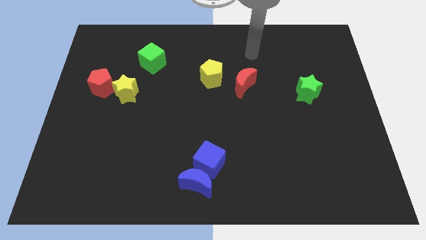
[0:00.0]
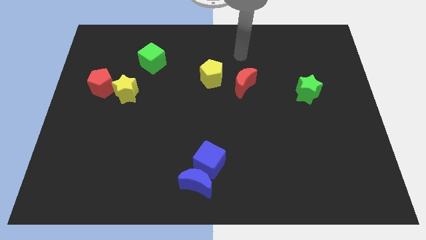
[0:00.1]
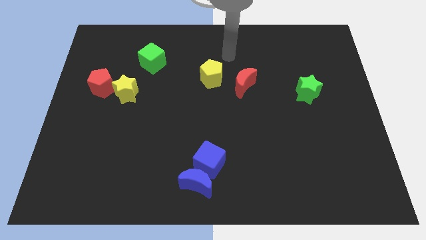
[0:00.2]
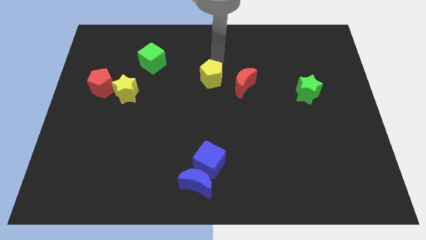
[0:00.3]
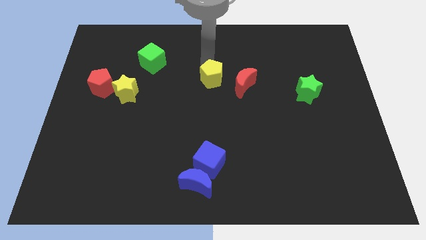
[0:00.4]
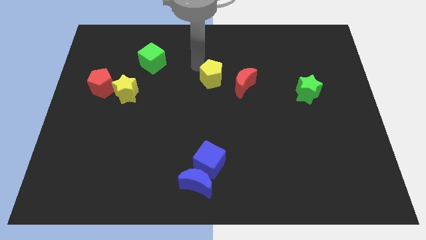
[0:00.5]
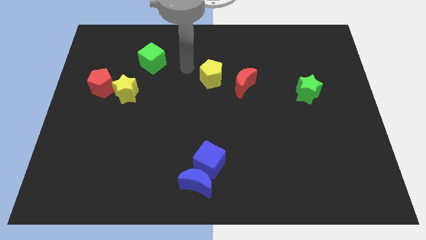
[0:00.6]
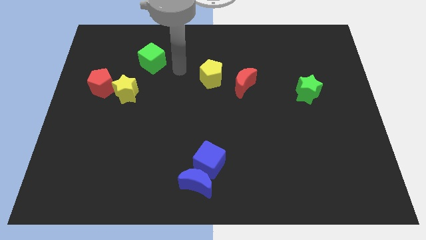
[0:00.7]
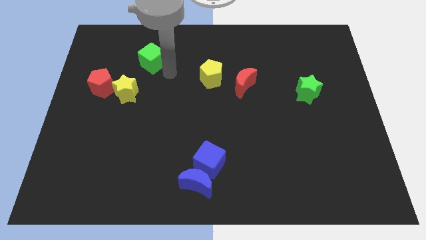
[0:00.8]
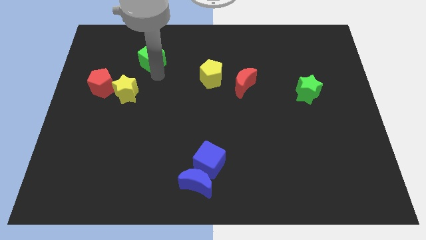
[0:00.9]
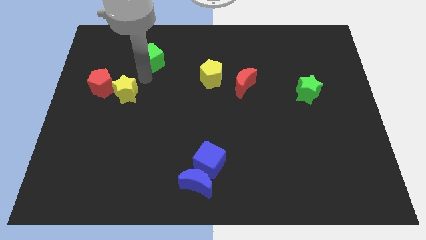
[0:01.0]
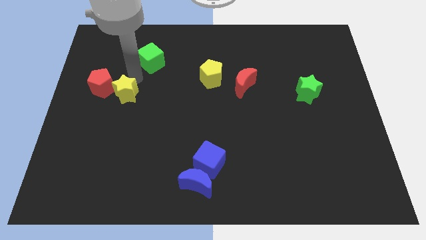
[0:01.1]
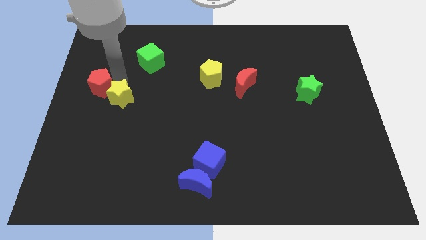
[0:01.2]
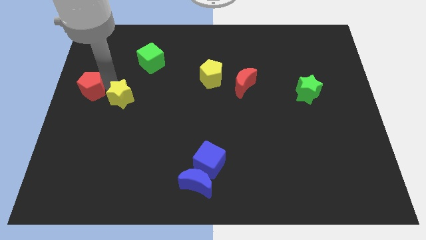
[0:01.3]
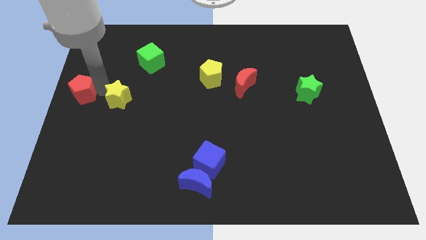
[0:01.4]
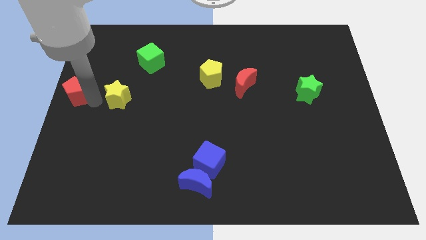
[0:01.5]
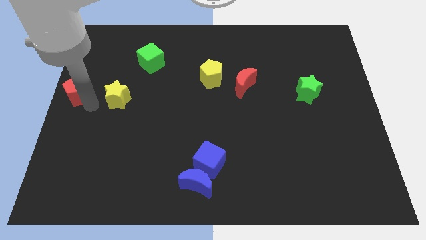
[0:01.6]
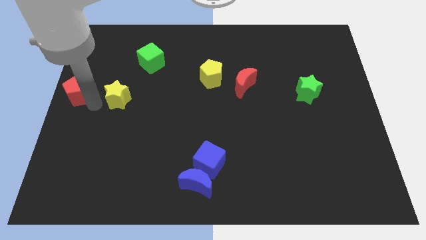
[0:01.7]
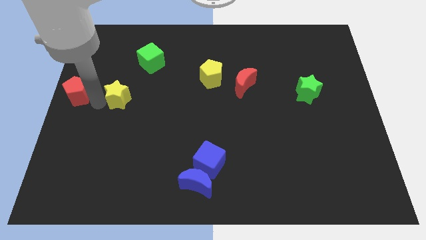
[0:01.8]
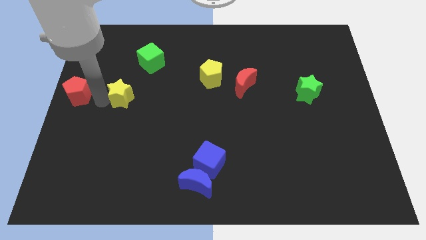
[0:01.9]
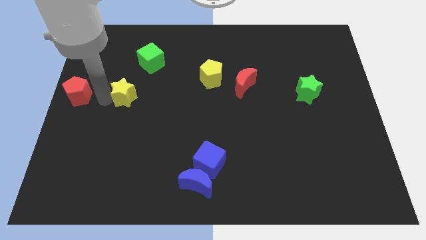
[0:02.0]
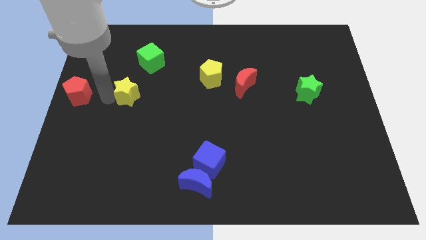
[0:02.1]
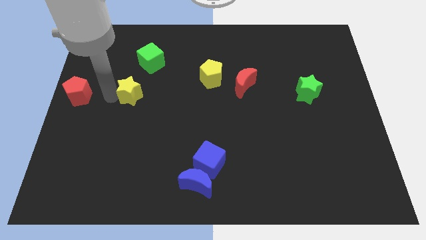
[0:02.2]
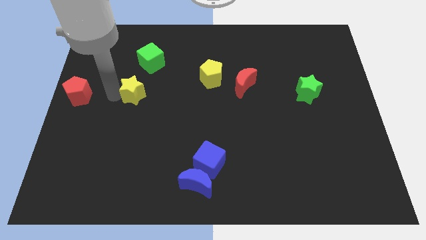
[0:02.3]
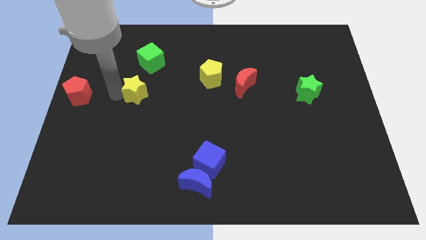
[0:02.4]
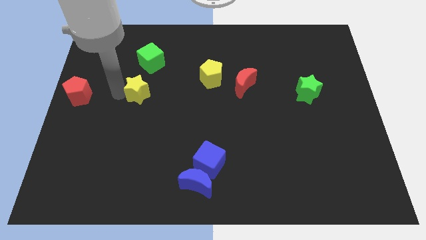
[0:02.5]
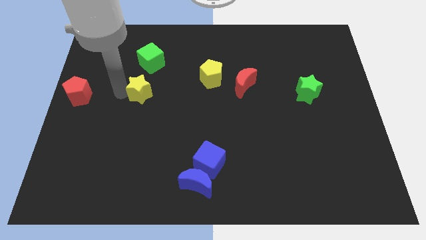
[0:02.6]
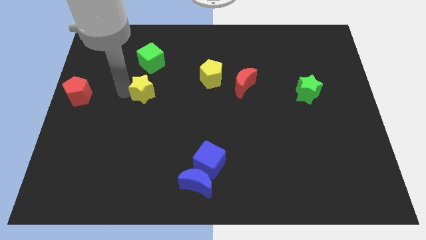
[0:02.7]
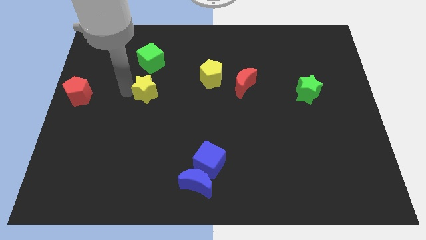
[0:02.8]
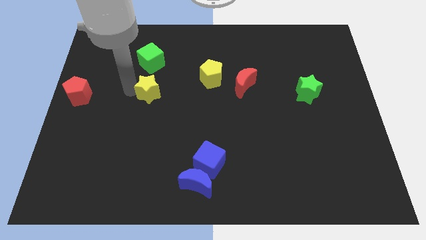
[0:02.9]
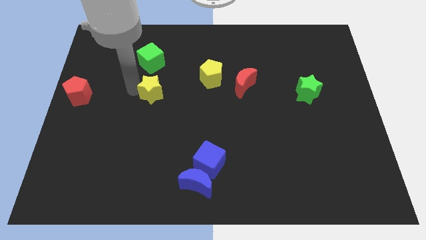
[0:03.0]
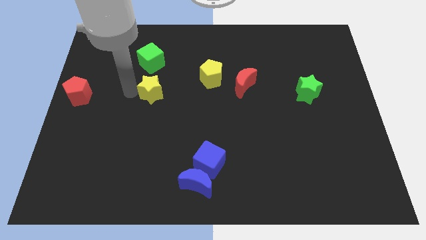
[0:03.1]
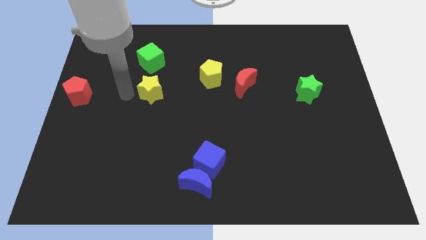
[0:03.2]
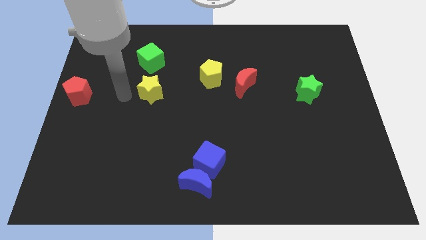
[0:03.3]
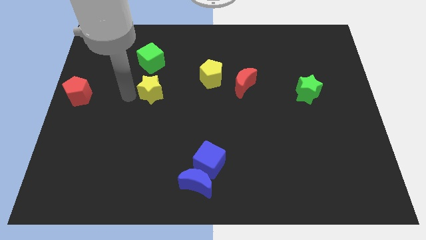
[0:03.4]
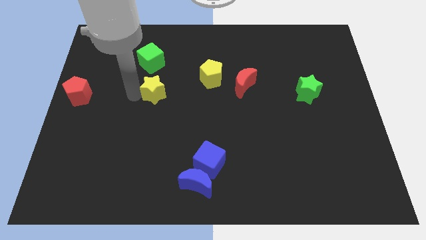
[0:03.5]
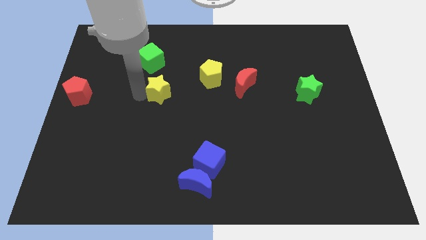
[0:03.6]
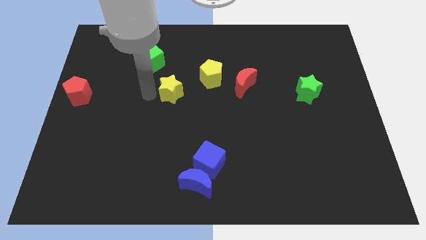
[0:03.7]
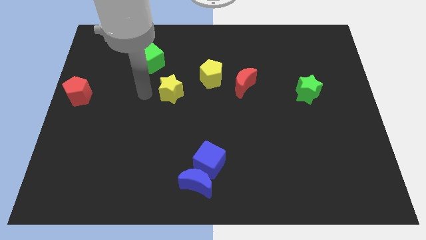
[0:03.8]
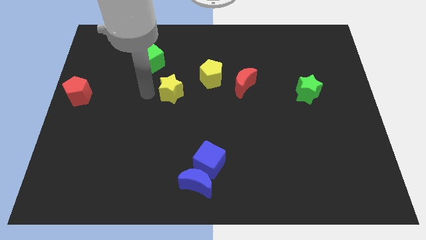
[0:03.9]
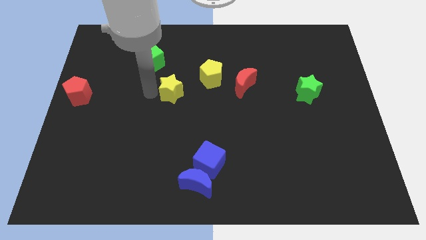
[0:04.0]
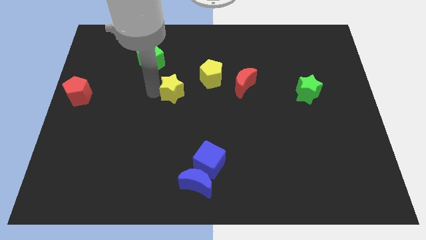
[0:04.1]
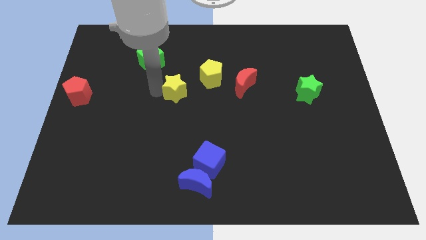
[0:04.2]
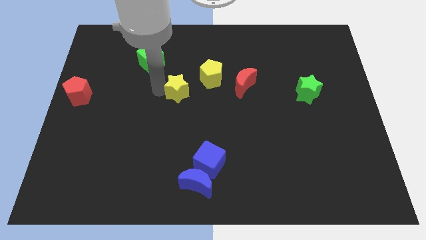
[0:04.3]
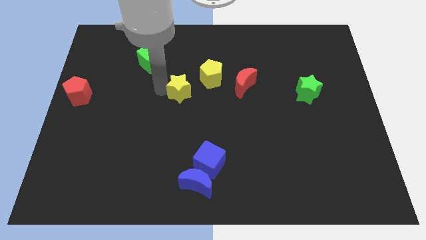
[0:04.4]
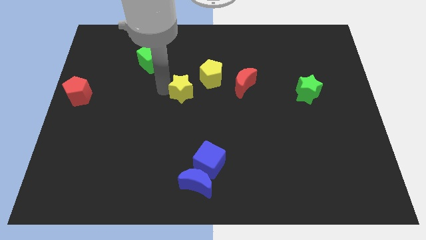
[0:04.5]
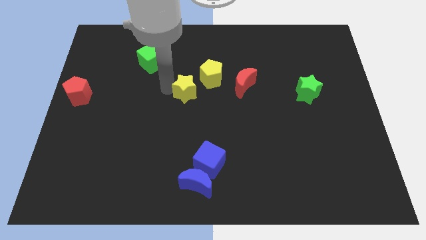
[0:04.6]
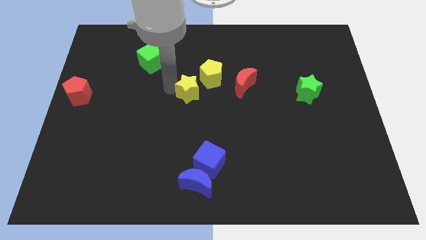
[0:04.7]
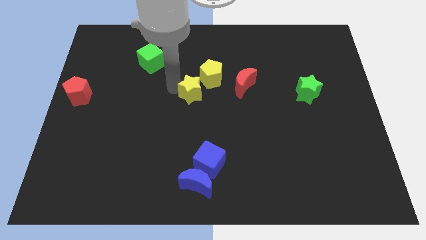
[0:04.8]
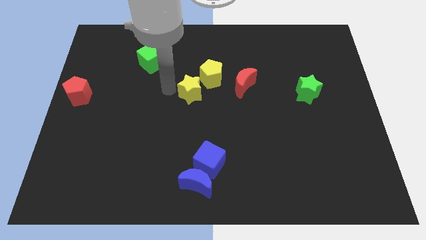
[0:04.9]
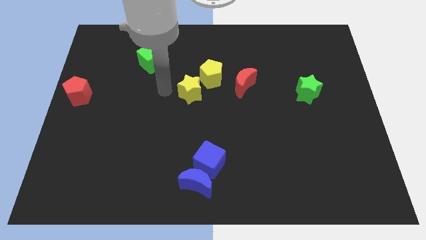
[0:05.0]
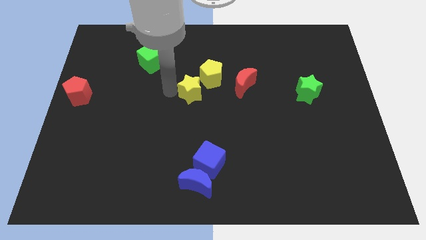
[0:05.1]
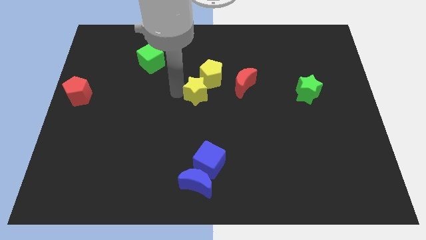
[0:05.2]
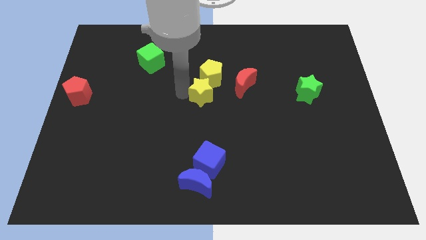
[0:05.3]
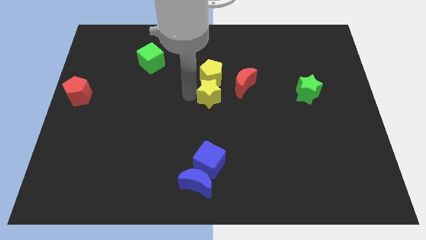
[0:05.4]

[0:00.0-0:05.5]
put the yellow star to the bottom right side of the yellow pentagon

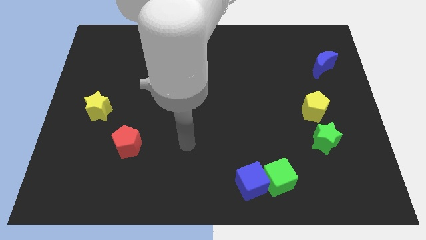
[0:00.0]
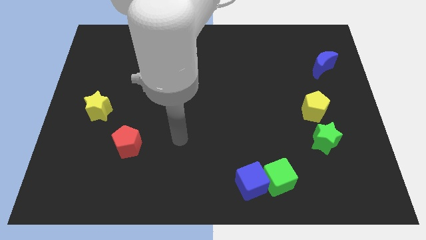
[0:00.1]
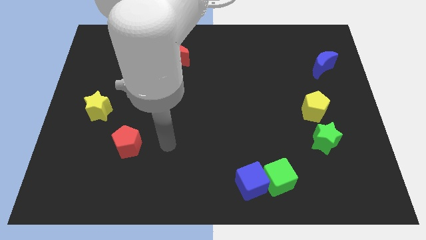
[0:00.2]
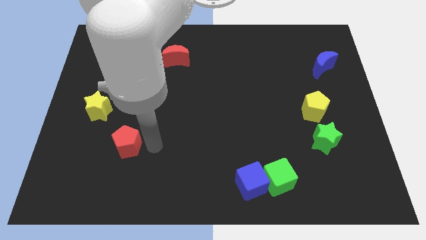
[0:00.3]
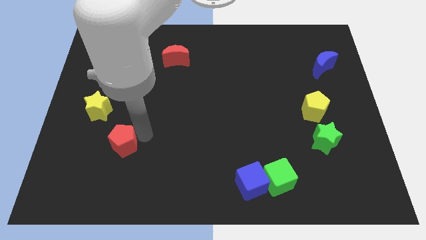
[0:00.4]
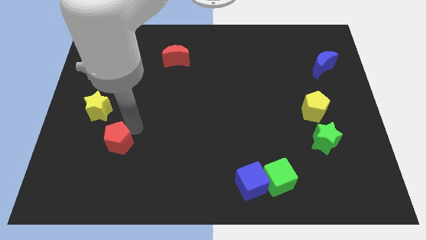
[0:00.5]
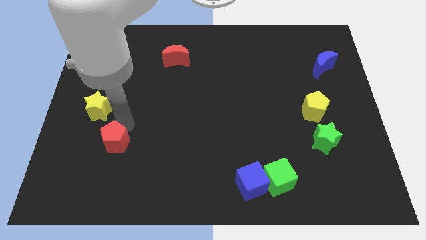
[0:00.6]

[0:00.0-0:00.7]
move the yellow star to the top of the red pentagon
